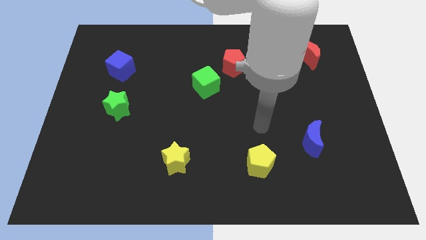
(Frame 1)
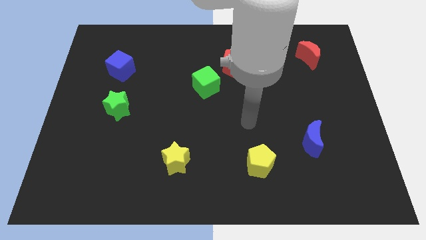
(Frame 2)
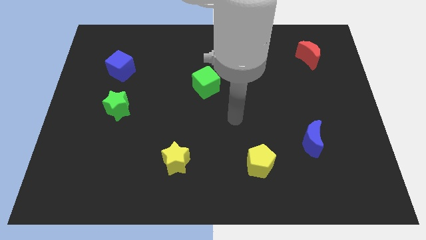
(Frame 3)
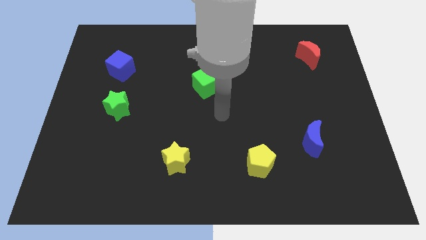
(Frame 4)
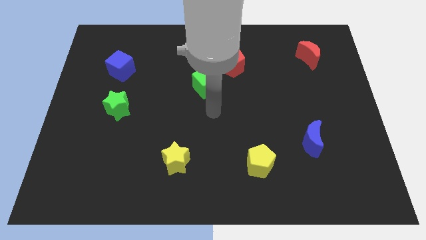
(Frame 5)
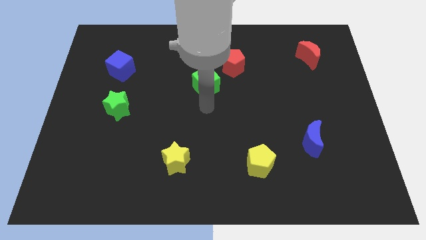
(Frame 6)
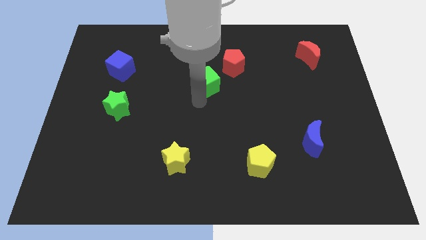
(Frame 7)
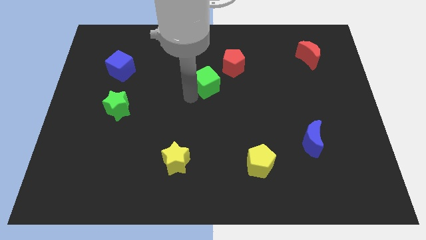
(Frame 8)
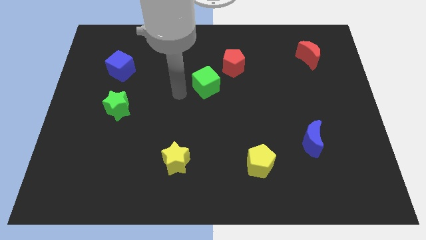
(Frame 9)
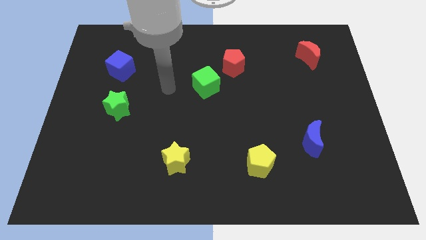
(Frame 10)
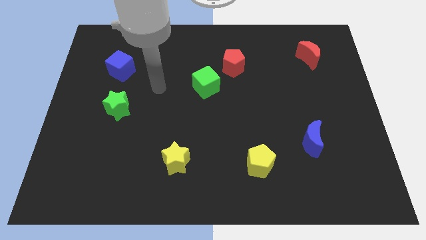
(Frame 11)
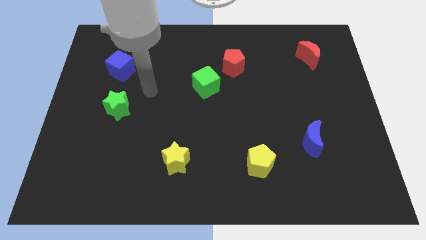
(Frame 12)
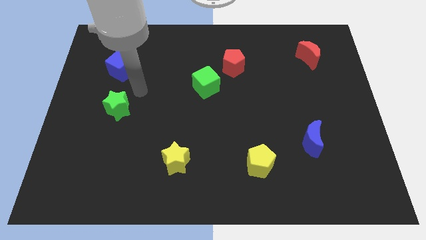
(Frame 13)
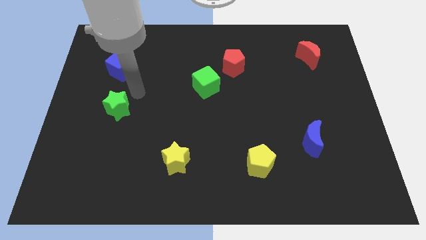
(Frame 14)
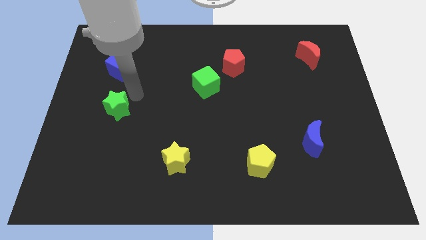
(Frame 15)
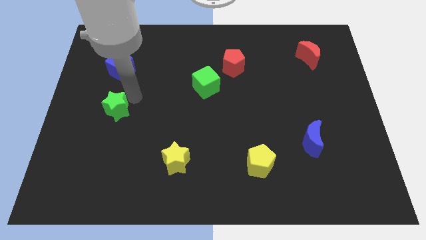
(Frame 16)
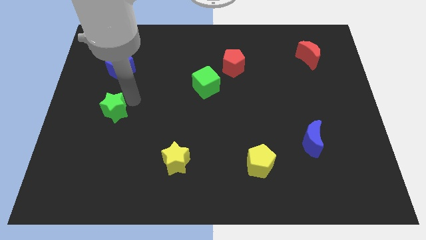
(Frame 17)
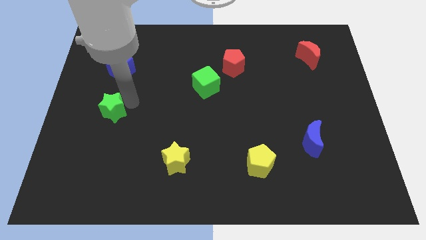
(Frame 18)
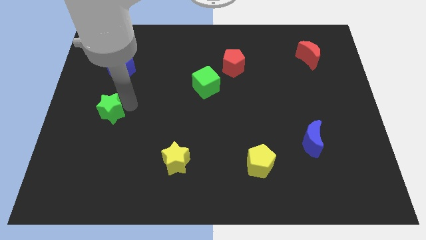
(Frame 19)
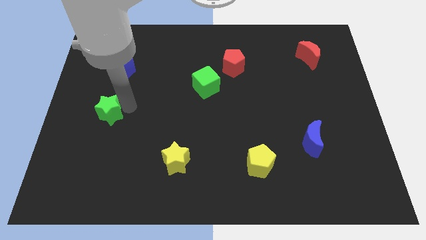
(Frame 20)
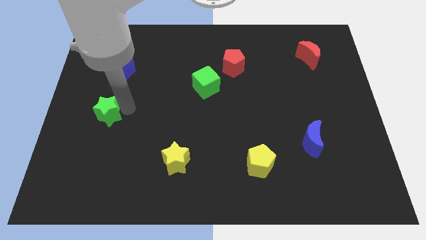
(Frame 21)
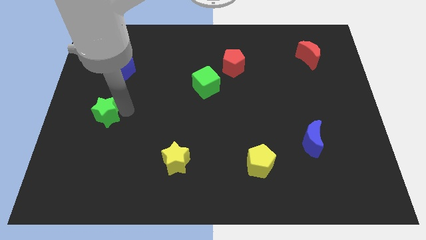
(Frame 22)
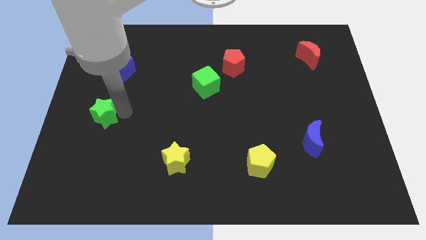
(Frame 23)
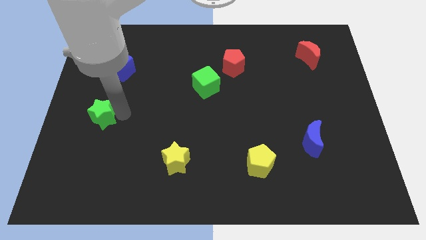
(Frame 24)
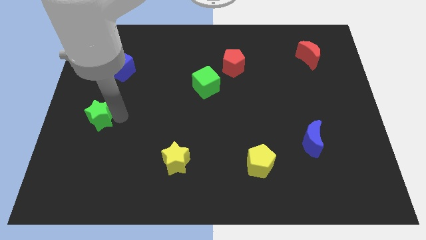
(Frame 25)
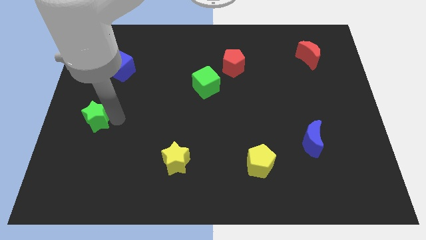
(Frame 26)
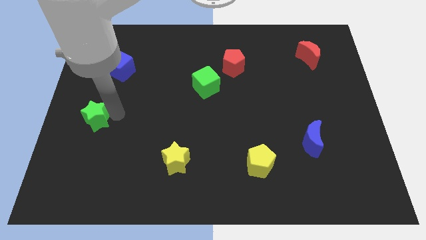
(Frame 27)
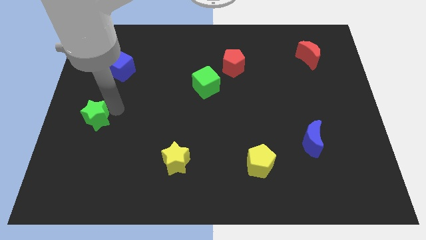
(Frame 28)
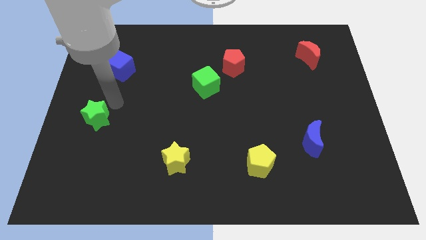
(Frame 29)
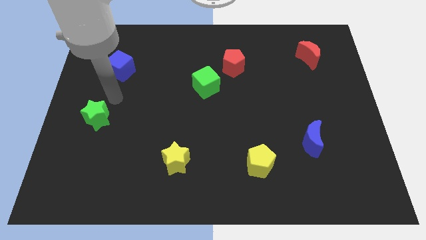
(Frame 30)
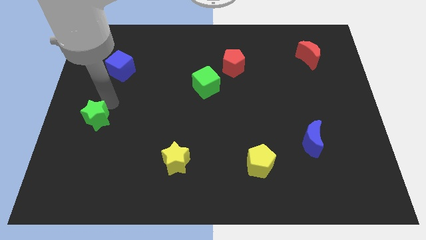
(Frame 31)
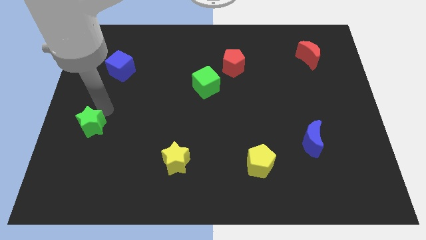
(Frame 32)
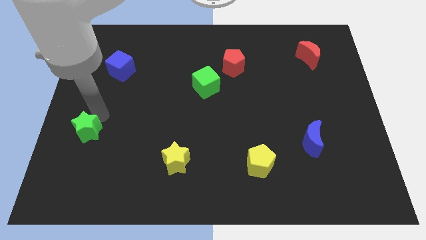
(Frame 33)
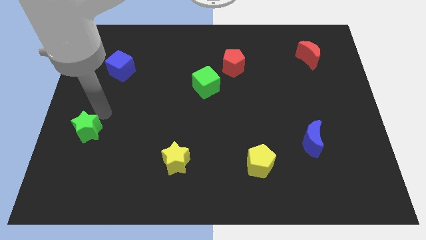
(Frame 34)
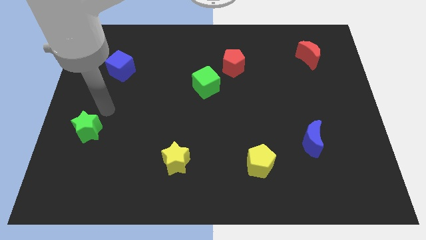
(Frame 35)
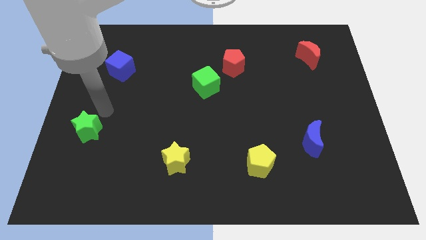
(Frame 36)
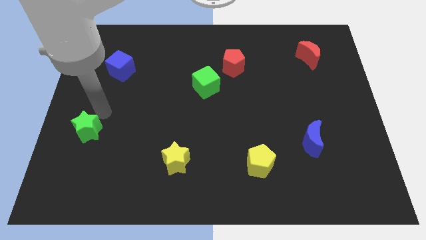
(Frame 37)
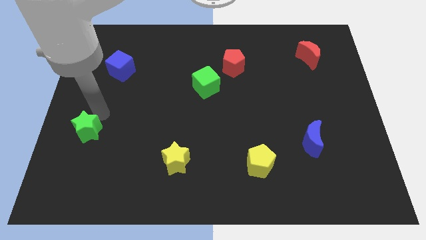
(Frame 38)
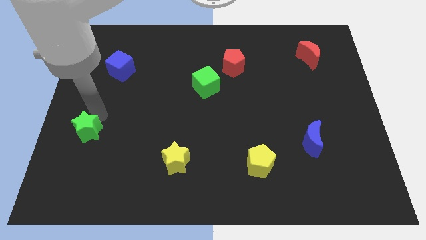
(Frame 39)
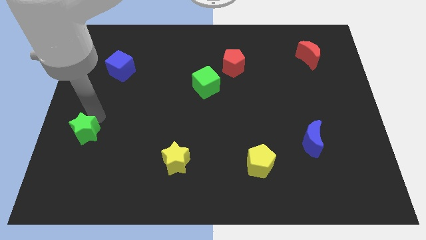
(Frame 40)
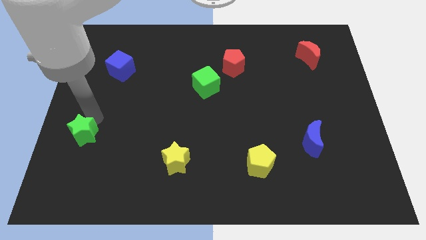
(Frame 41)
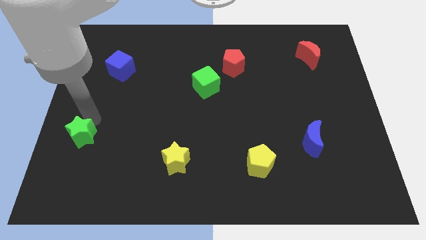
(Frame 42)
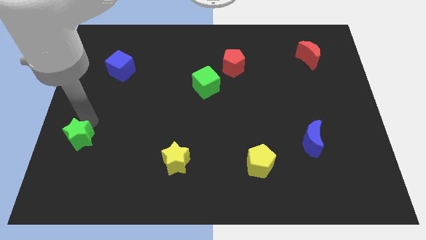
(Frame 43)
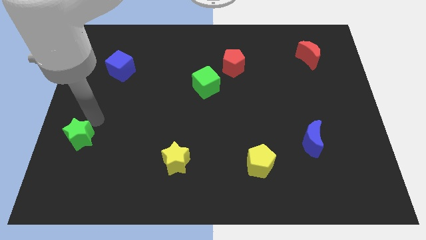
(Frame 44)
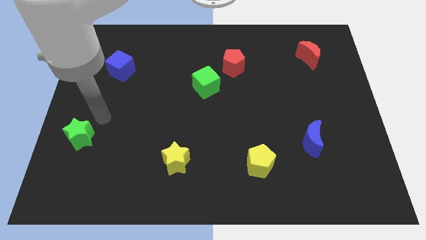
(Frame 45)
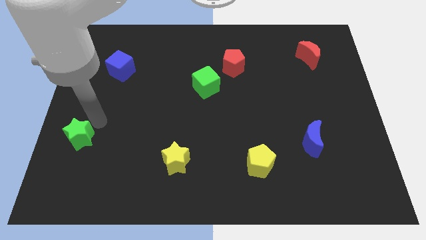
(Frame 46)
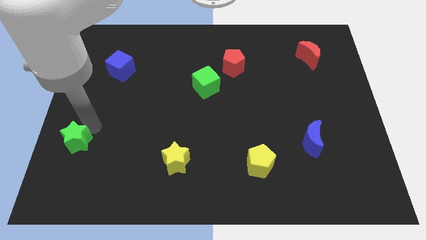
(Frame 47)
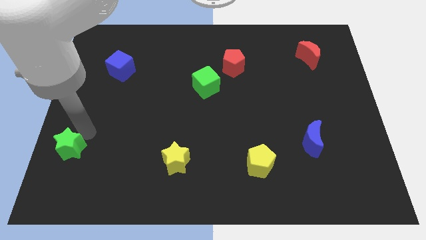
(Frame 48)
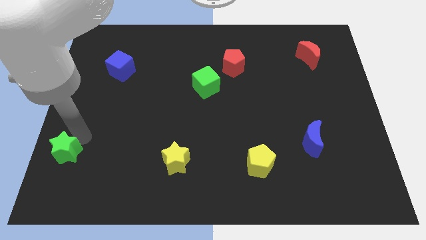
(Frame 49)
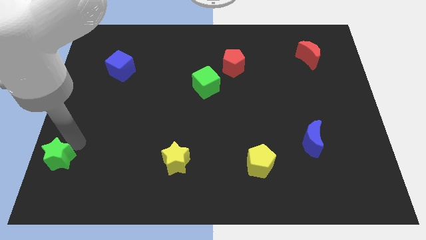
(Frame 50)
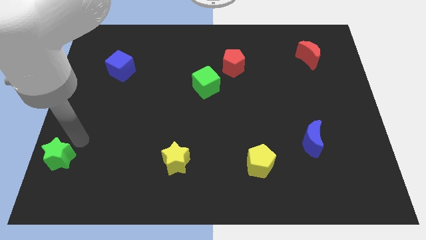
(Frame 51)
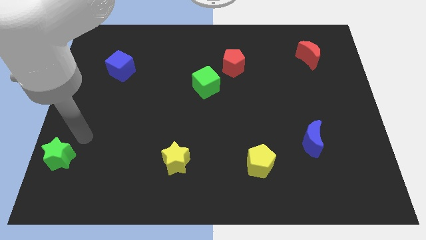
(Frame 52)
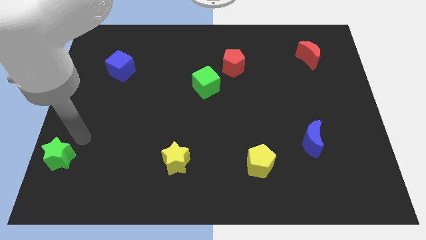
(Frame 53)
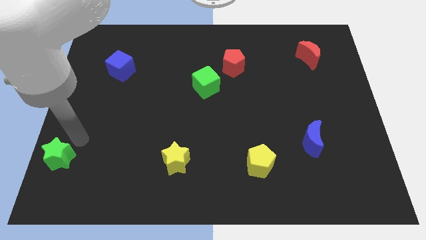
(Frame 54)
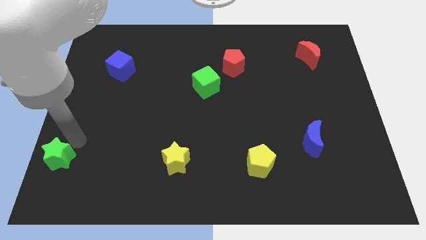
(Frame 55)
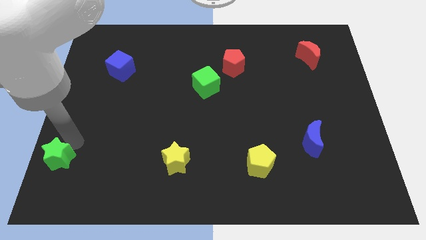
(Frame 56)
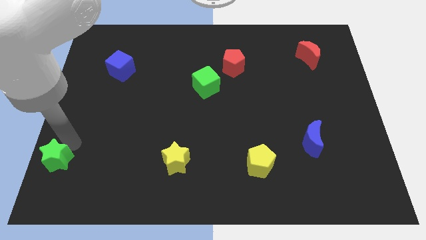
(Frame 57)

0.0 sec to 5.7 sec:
put the green star to the bottom left of the board
